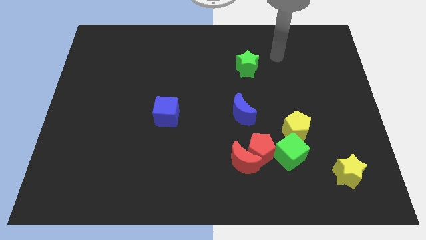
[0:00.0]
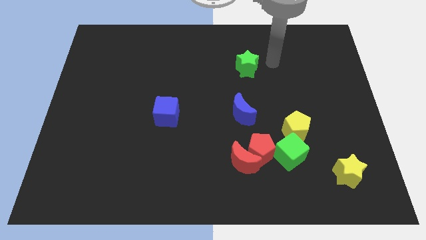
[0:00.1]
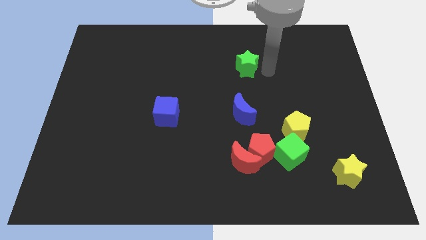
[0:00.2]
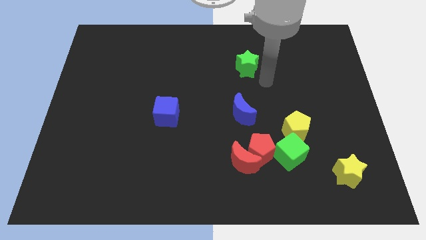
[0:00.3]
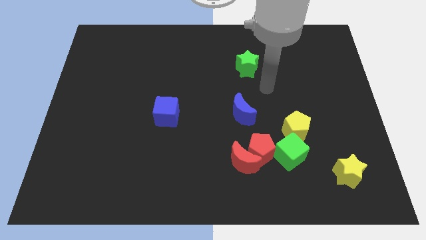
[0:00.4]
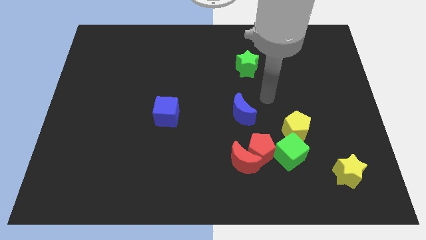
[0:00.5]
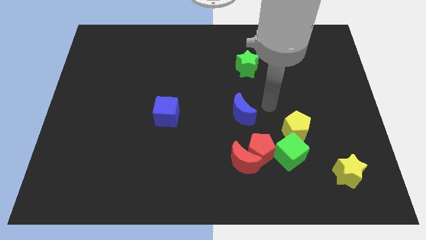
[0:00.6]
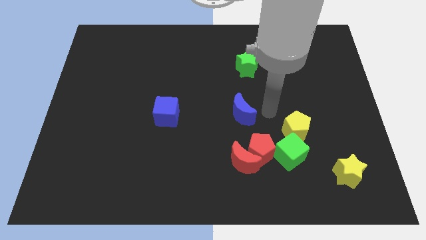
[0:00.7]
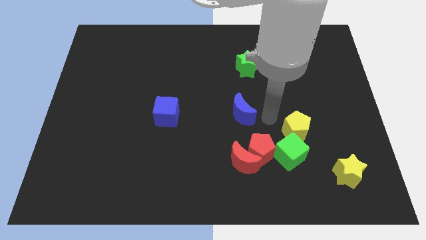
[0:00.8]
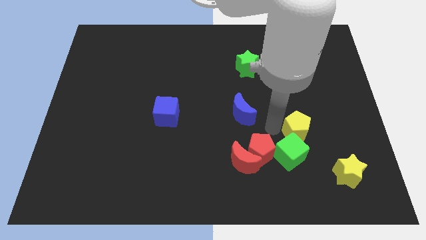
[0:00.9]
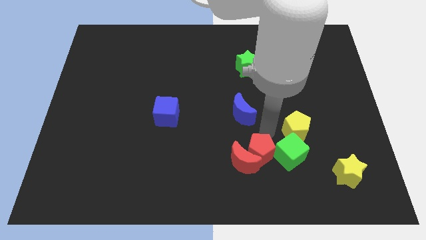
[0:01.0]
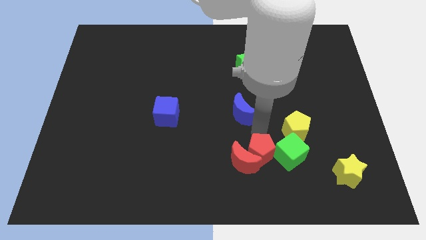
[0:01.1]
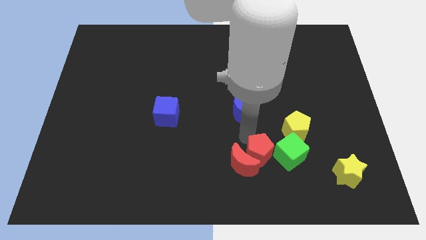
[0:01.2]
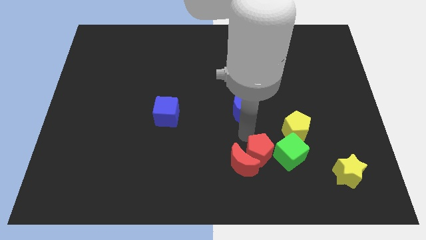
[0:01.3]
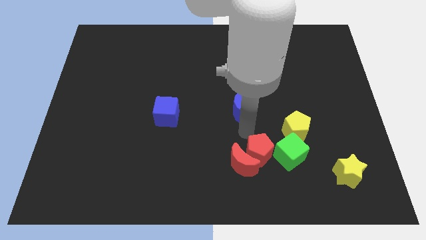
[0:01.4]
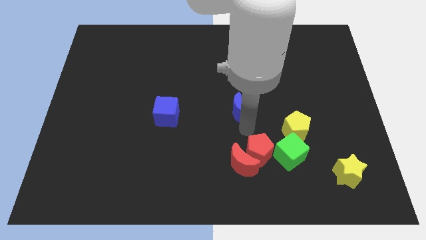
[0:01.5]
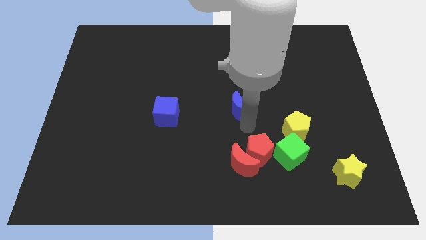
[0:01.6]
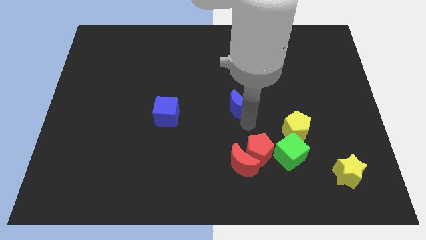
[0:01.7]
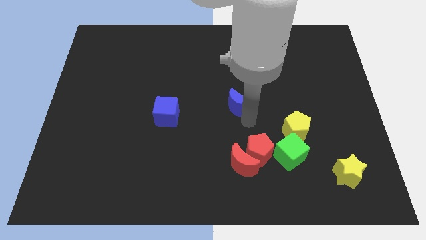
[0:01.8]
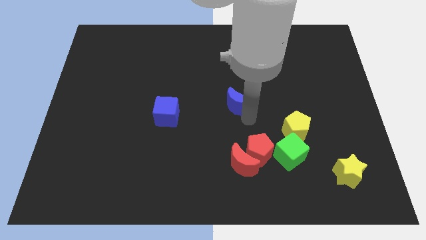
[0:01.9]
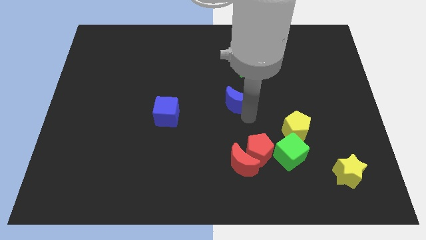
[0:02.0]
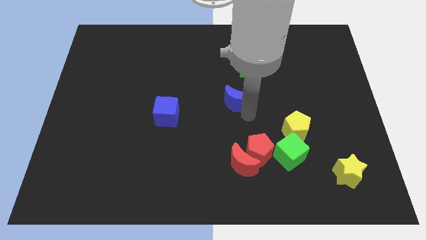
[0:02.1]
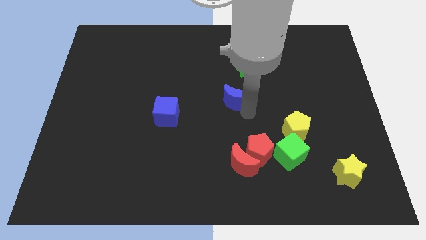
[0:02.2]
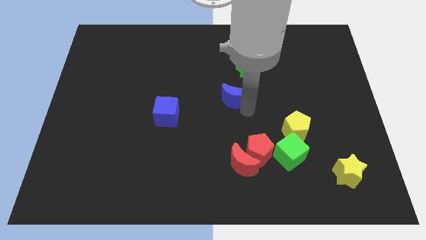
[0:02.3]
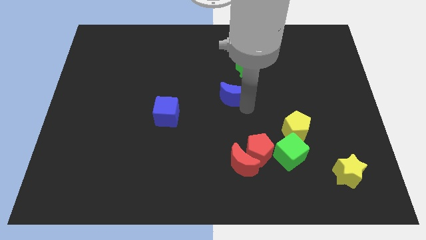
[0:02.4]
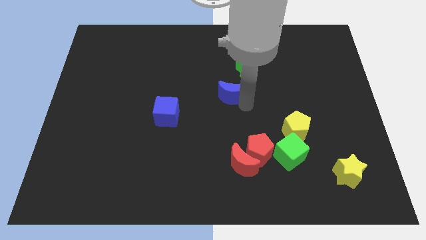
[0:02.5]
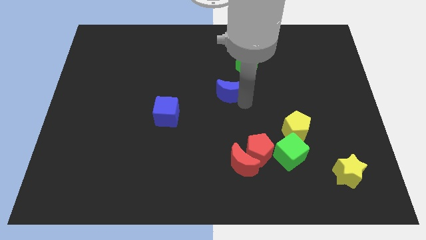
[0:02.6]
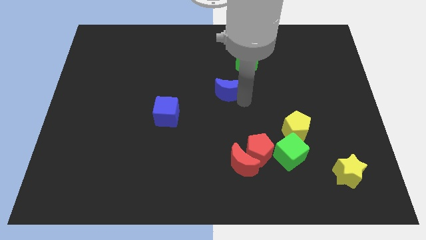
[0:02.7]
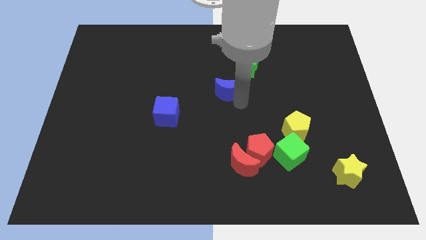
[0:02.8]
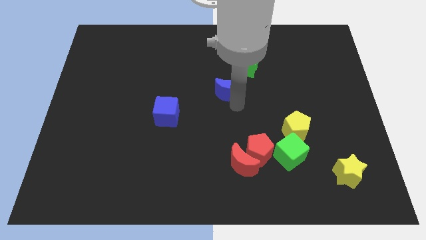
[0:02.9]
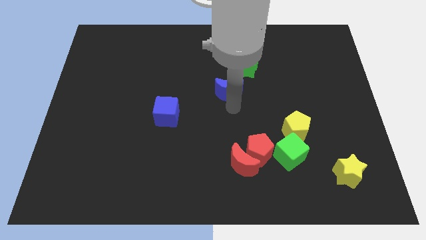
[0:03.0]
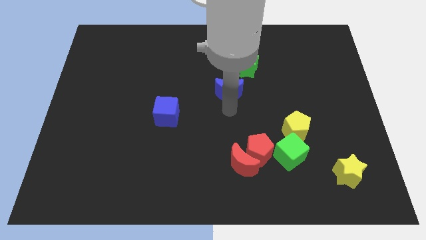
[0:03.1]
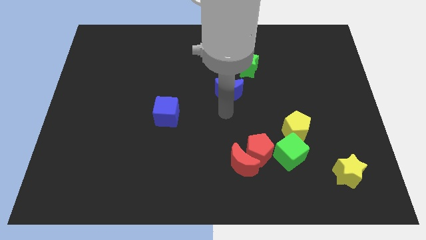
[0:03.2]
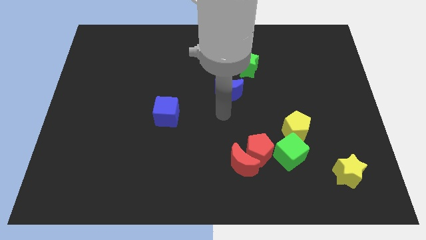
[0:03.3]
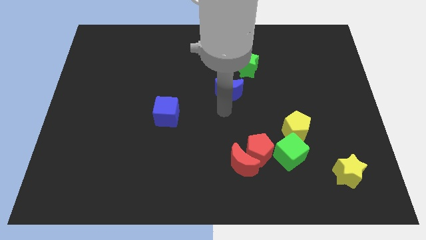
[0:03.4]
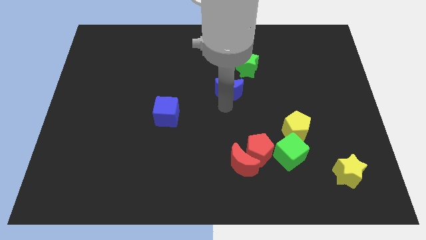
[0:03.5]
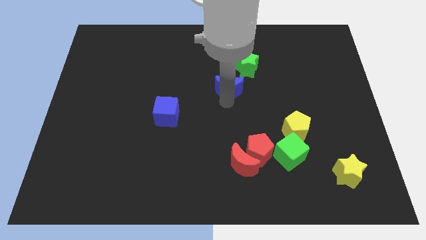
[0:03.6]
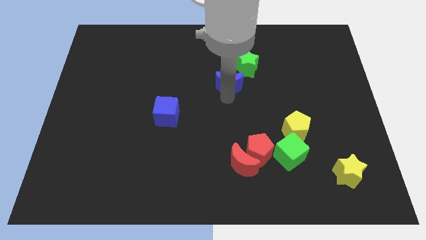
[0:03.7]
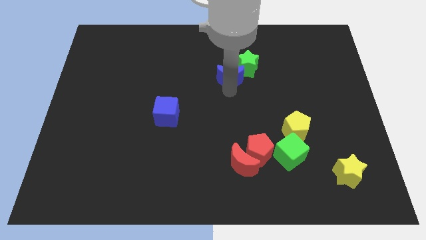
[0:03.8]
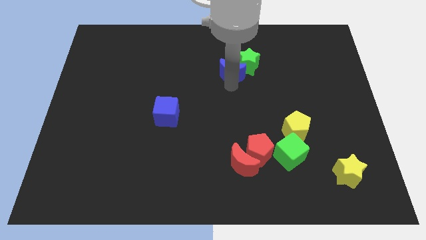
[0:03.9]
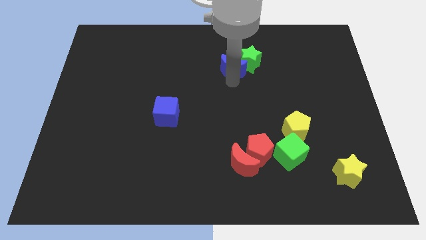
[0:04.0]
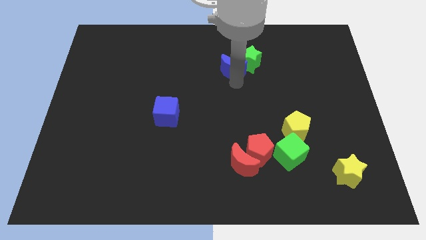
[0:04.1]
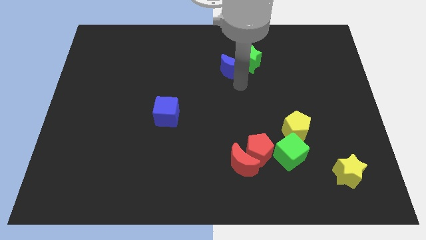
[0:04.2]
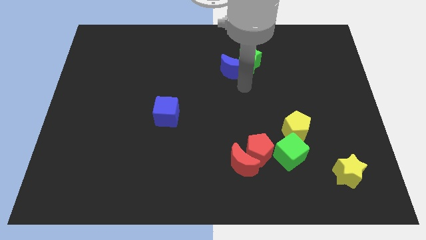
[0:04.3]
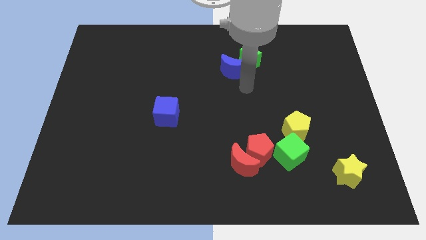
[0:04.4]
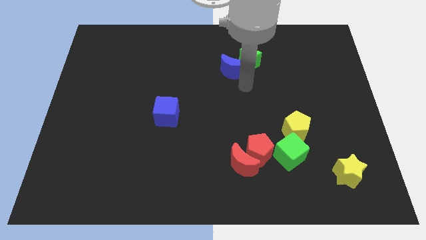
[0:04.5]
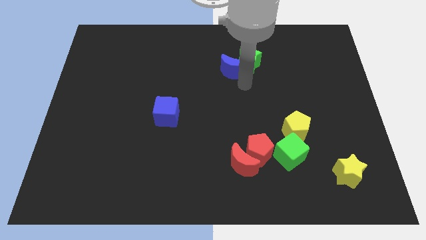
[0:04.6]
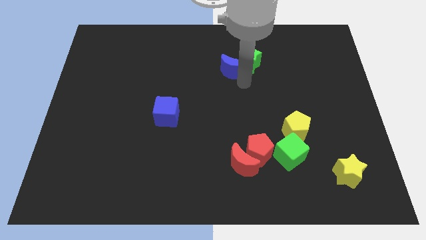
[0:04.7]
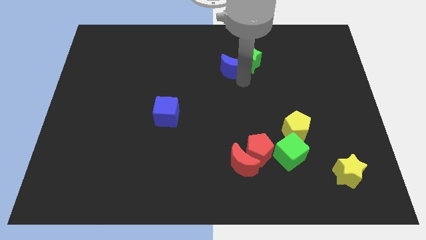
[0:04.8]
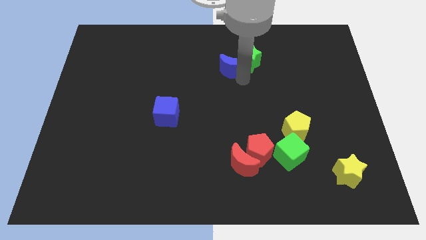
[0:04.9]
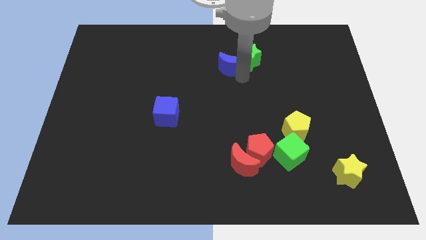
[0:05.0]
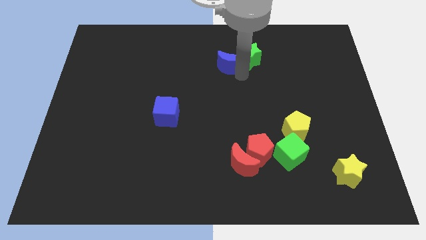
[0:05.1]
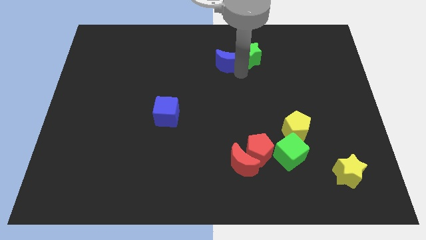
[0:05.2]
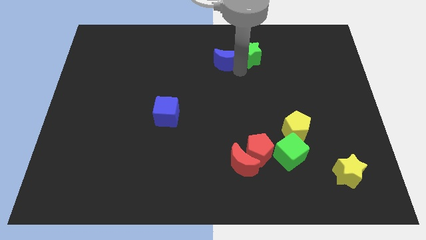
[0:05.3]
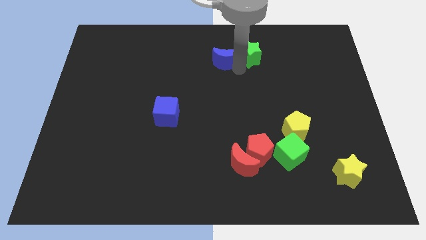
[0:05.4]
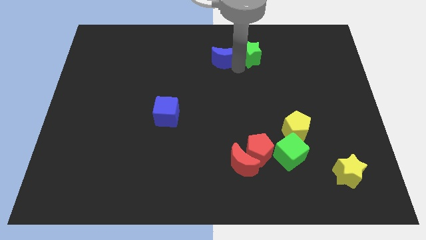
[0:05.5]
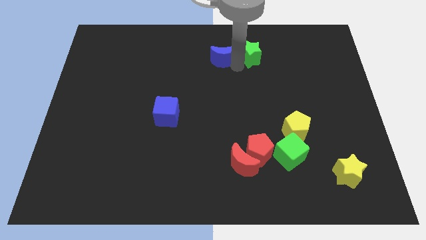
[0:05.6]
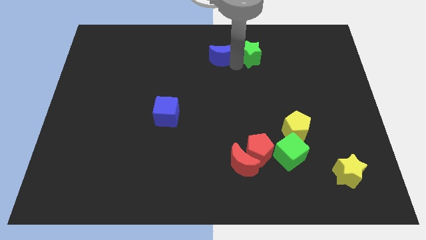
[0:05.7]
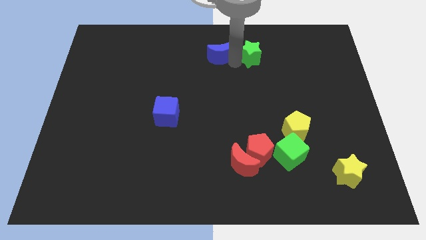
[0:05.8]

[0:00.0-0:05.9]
move the blue moon to the top side

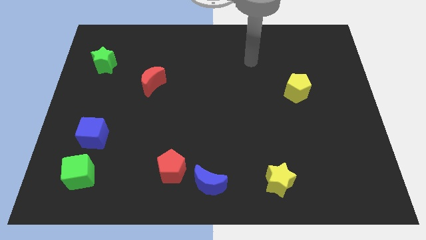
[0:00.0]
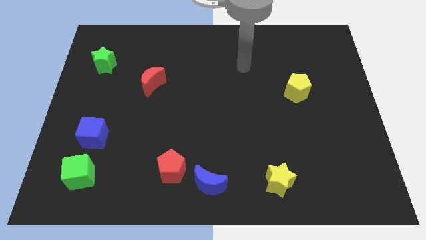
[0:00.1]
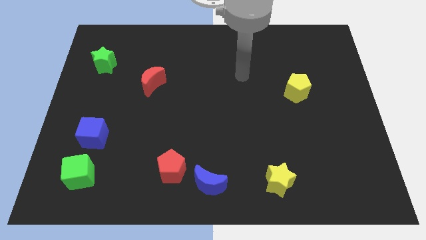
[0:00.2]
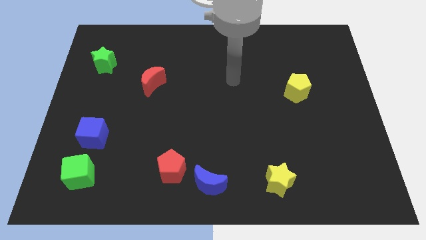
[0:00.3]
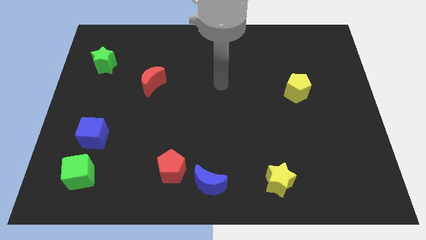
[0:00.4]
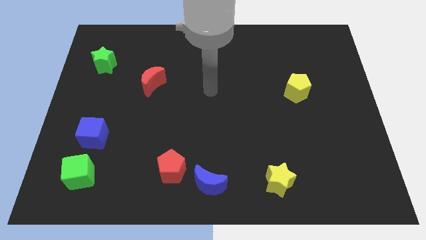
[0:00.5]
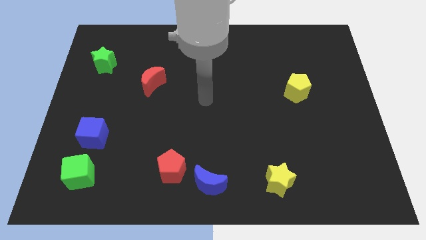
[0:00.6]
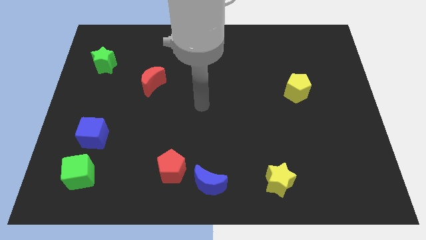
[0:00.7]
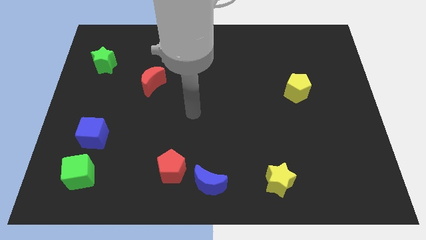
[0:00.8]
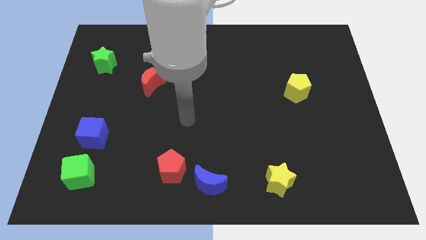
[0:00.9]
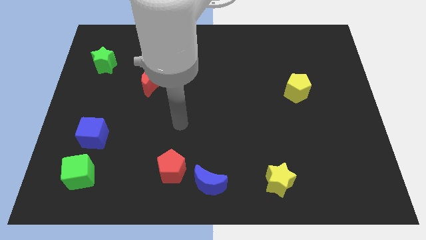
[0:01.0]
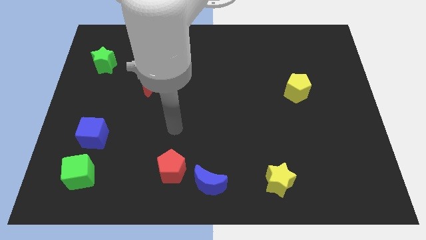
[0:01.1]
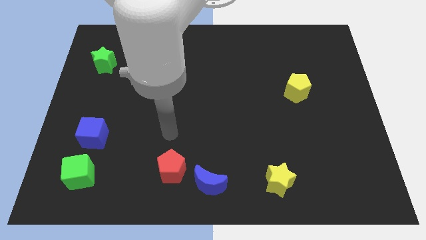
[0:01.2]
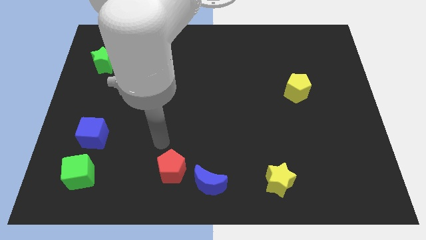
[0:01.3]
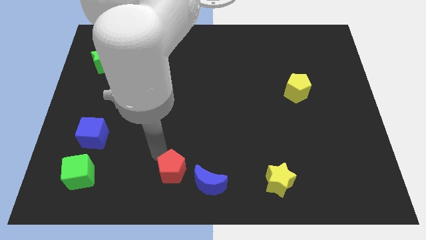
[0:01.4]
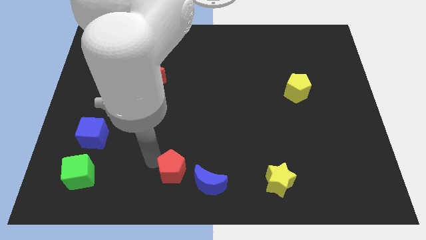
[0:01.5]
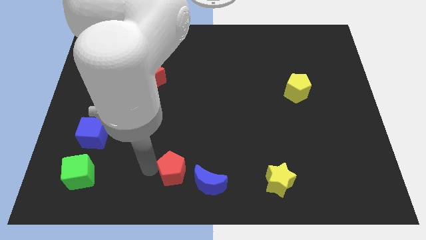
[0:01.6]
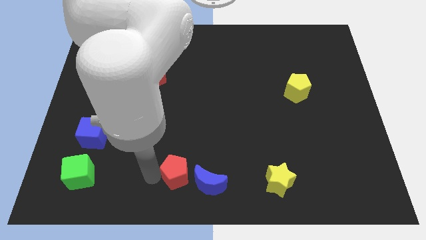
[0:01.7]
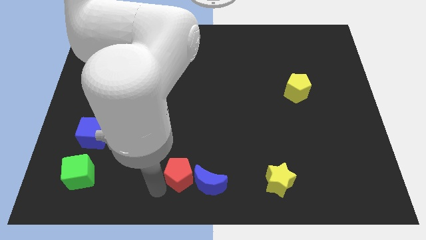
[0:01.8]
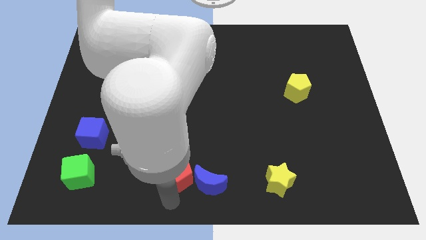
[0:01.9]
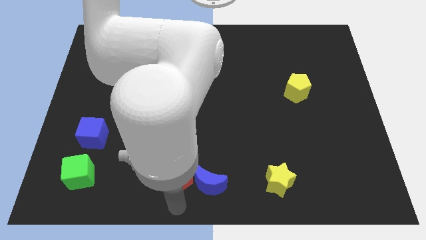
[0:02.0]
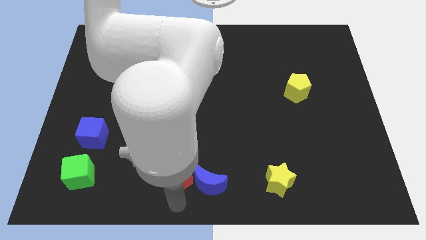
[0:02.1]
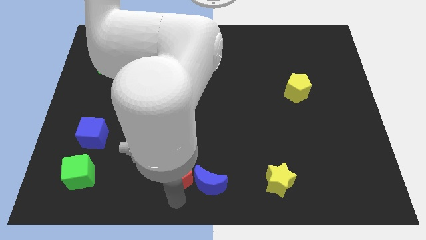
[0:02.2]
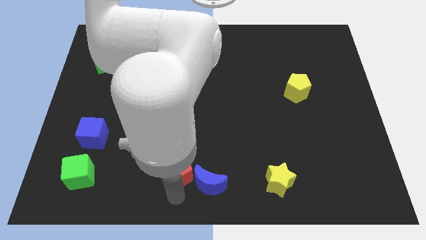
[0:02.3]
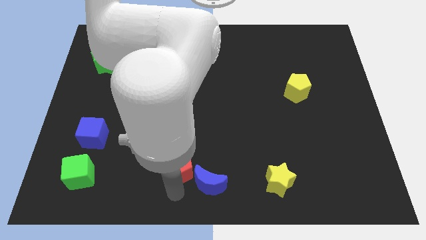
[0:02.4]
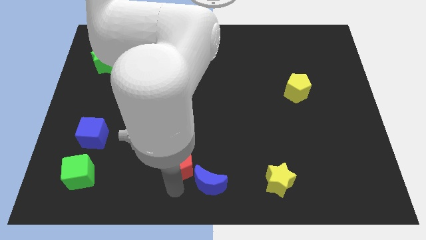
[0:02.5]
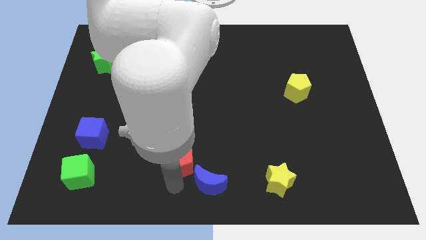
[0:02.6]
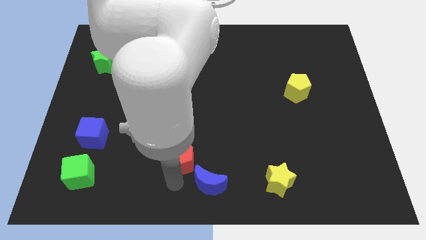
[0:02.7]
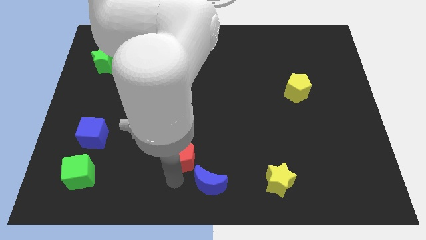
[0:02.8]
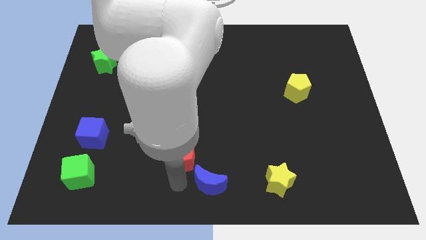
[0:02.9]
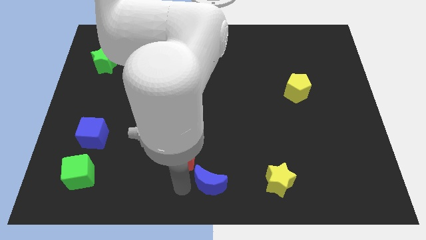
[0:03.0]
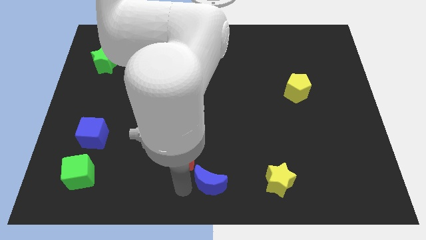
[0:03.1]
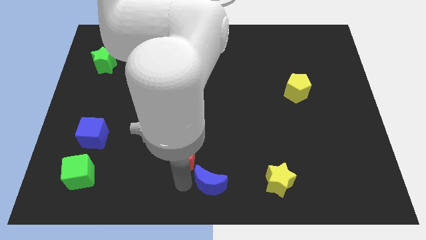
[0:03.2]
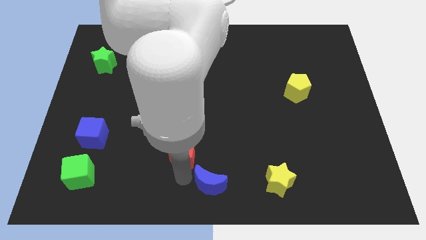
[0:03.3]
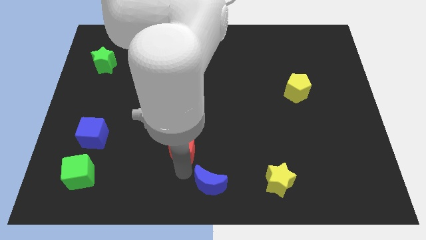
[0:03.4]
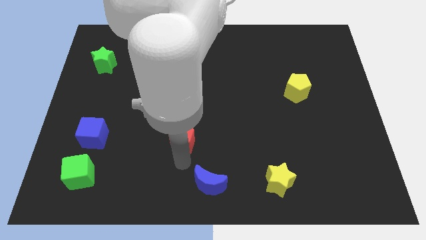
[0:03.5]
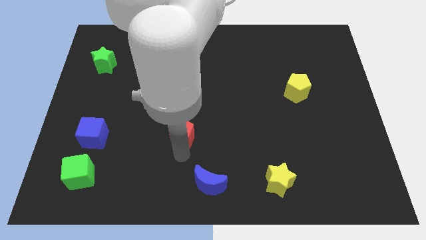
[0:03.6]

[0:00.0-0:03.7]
push the red pentagon to the middle
